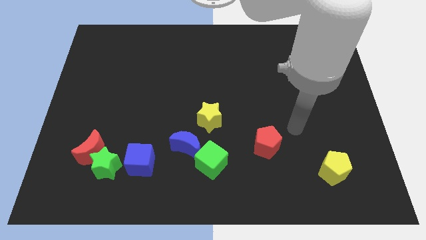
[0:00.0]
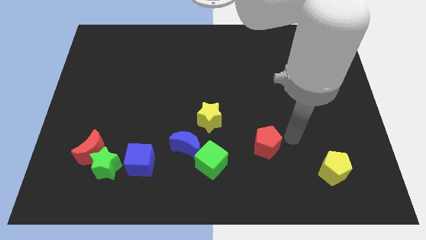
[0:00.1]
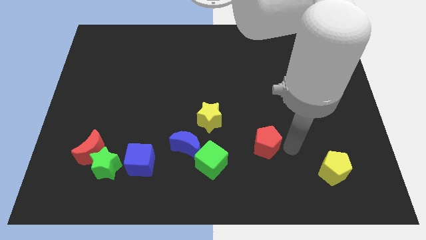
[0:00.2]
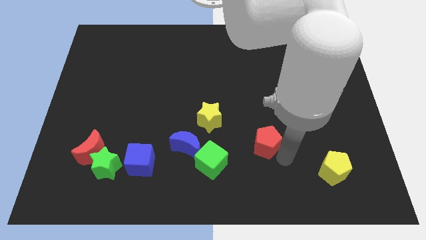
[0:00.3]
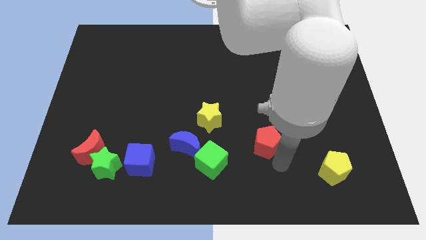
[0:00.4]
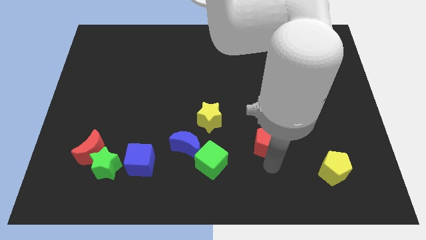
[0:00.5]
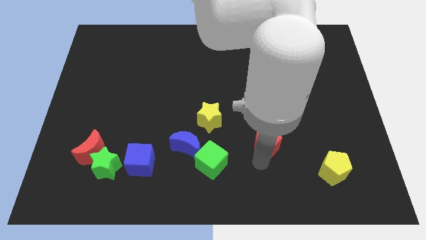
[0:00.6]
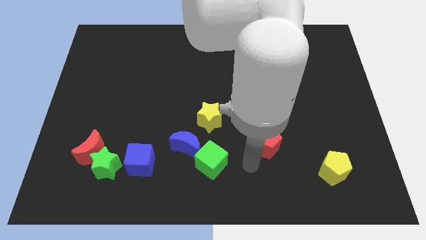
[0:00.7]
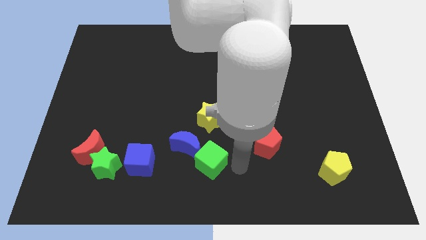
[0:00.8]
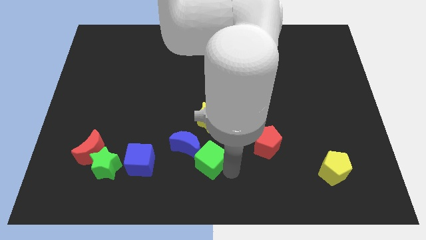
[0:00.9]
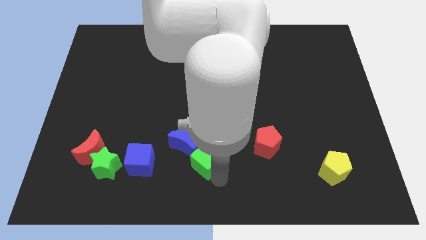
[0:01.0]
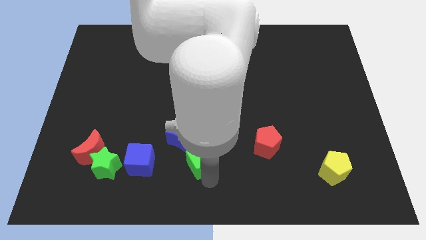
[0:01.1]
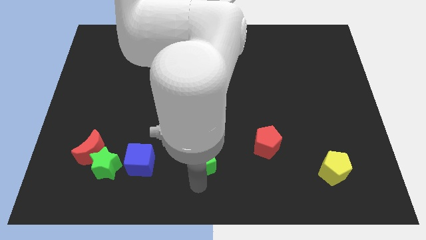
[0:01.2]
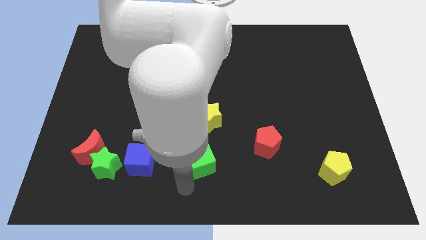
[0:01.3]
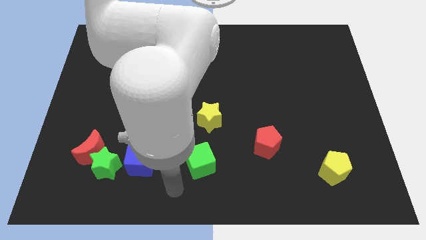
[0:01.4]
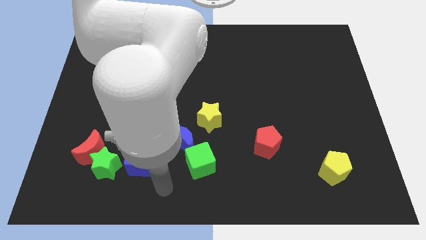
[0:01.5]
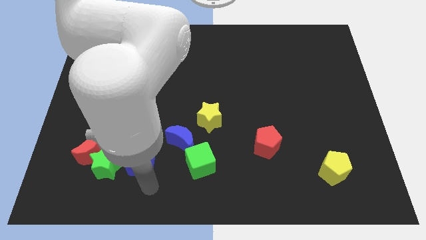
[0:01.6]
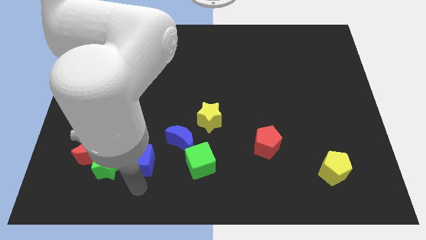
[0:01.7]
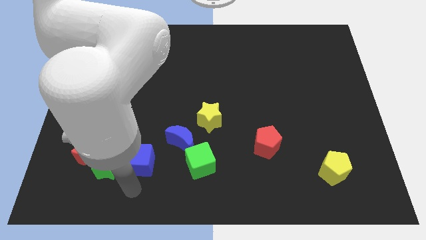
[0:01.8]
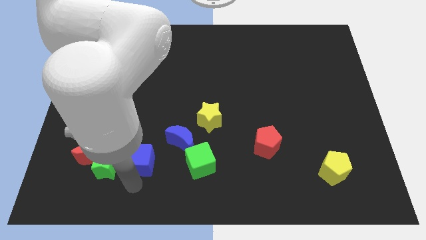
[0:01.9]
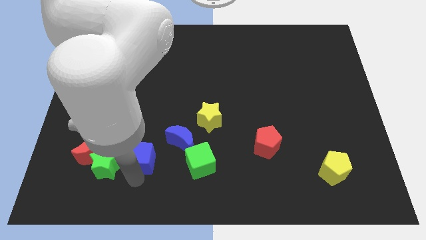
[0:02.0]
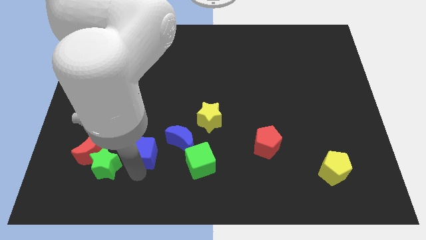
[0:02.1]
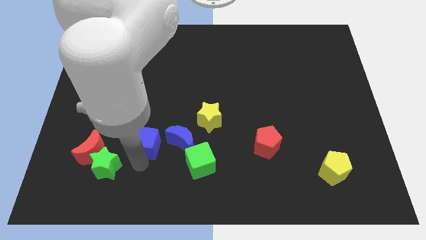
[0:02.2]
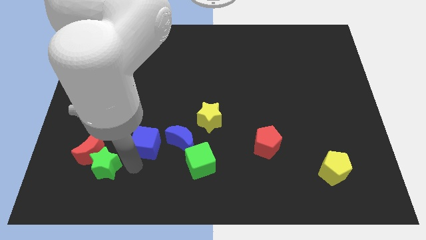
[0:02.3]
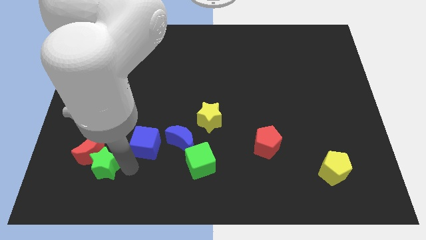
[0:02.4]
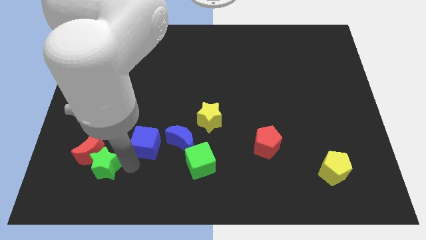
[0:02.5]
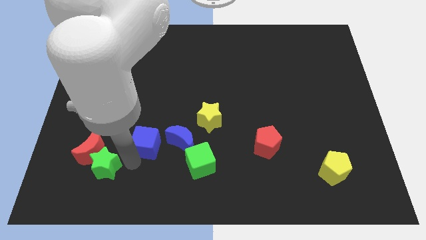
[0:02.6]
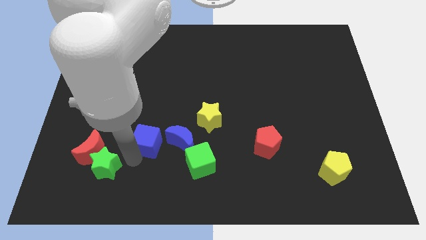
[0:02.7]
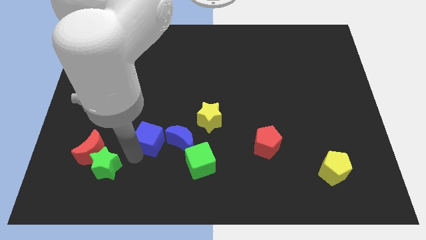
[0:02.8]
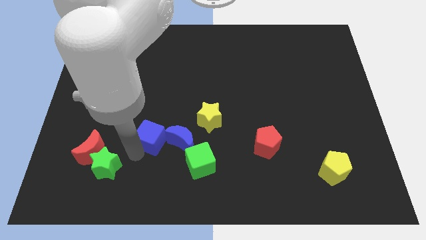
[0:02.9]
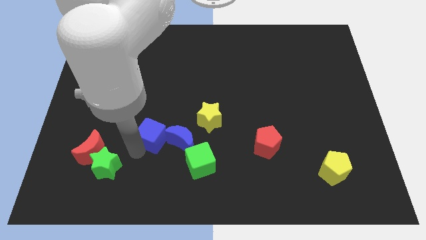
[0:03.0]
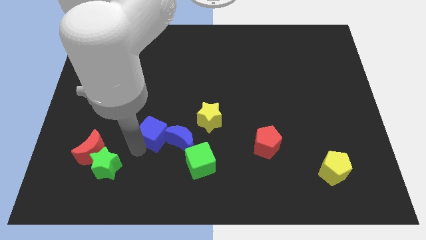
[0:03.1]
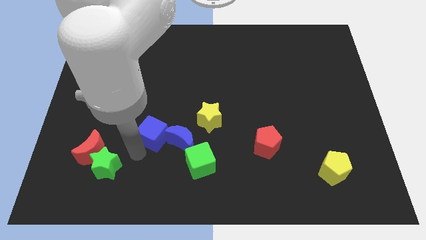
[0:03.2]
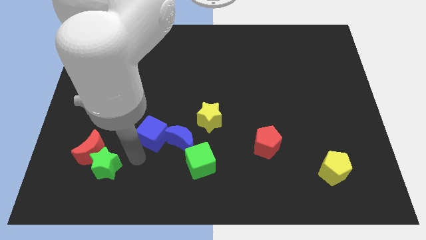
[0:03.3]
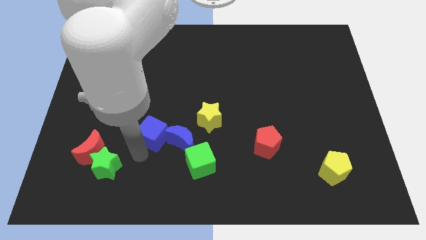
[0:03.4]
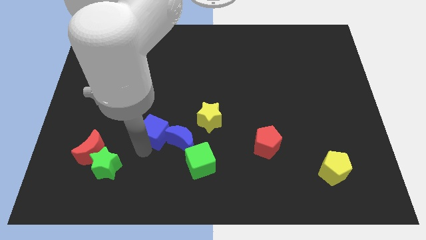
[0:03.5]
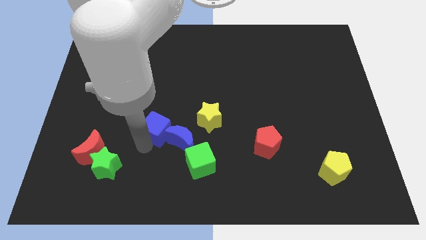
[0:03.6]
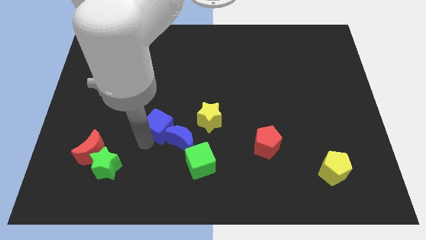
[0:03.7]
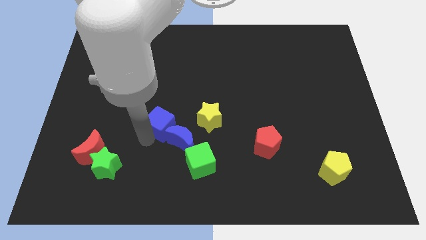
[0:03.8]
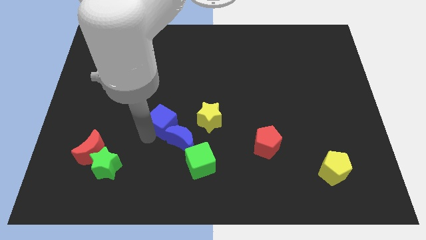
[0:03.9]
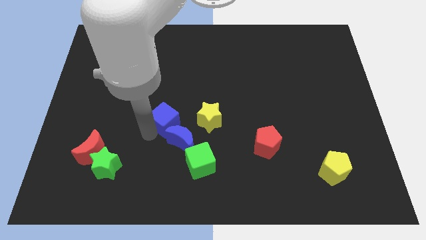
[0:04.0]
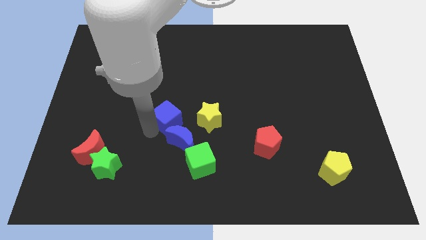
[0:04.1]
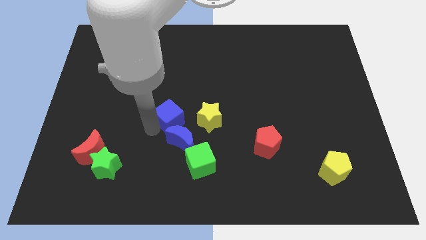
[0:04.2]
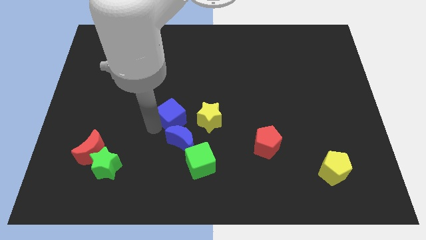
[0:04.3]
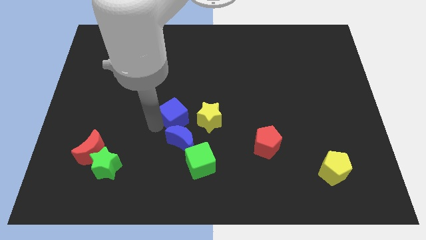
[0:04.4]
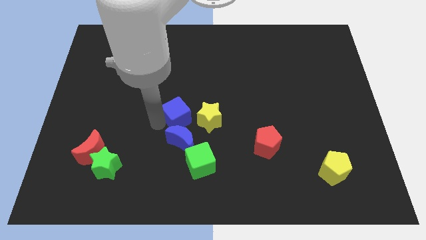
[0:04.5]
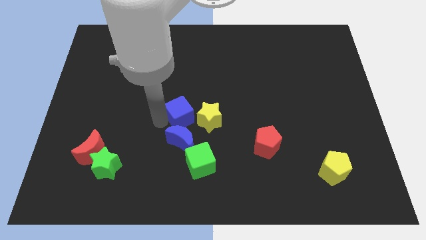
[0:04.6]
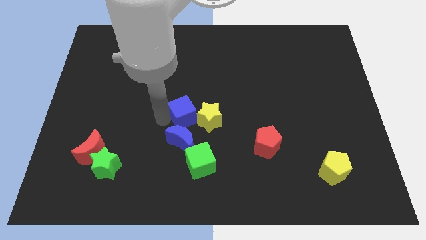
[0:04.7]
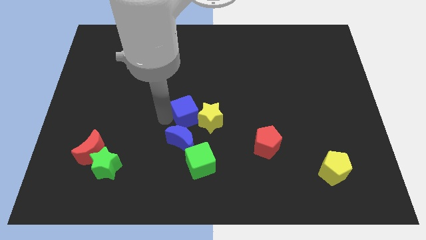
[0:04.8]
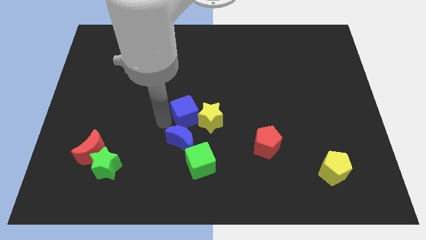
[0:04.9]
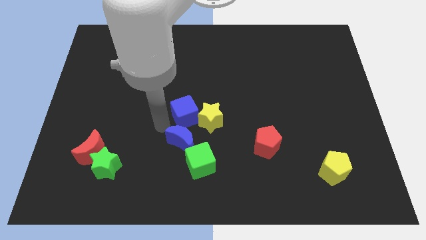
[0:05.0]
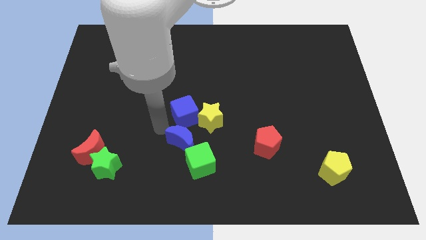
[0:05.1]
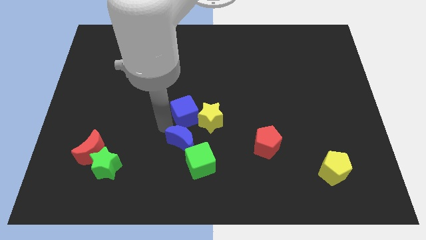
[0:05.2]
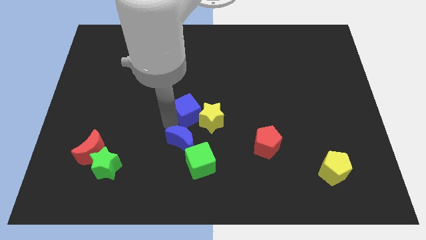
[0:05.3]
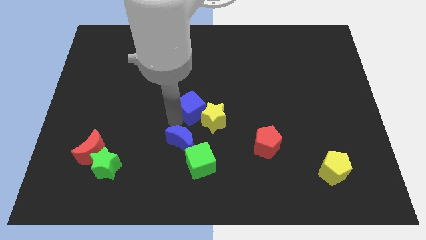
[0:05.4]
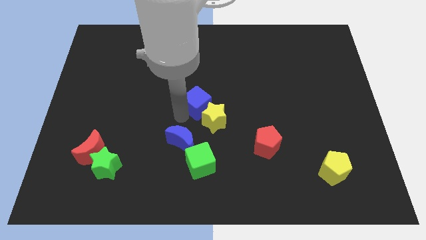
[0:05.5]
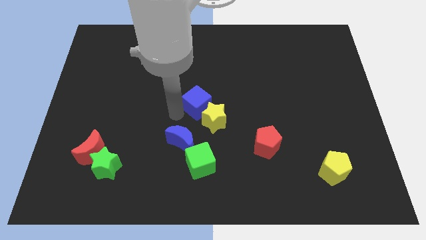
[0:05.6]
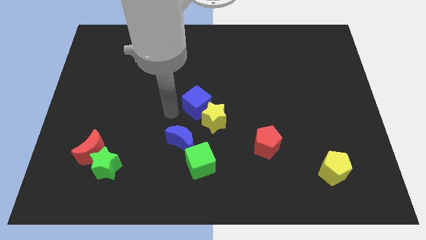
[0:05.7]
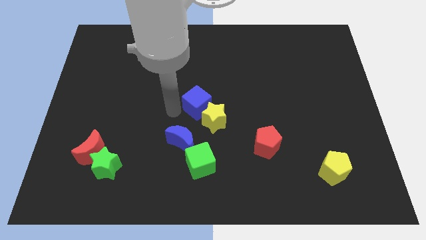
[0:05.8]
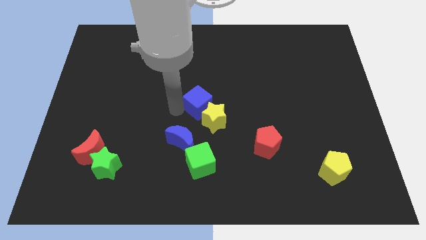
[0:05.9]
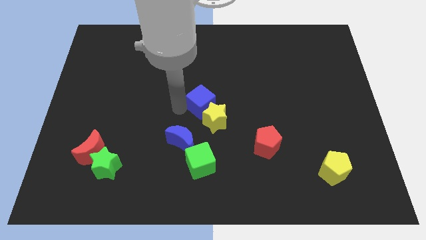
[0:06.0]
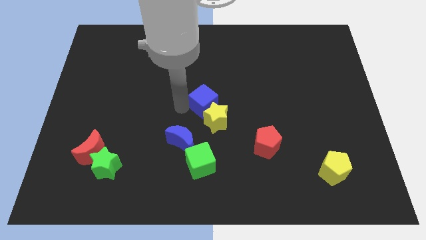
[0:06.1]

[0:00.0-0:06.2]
slide the blue cube up and right

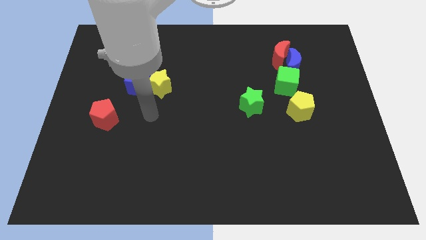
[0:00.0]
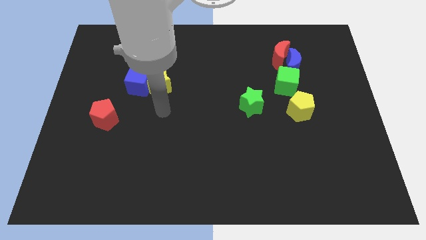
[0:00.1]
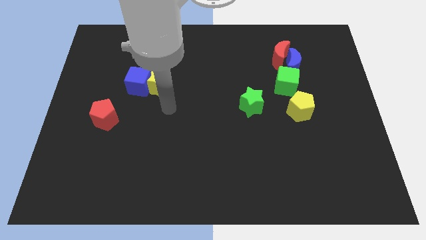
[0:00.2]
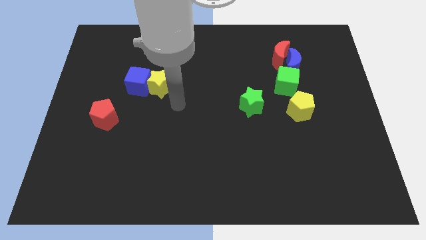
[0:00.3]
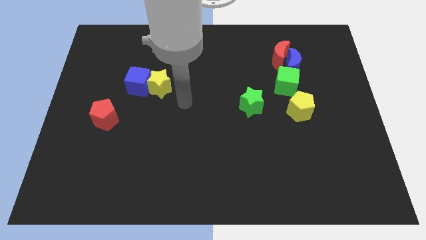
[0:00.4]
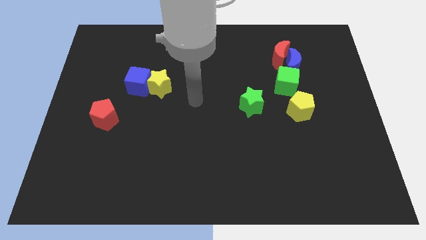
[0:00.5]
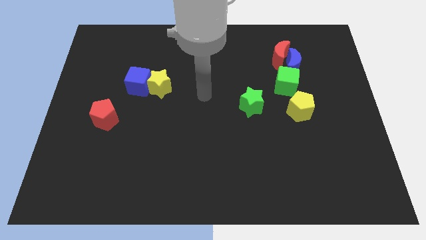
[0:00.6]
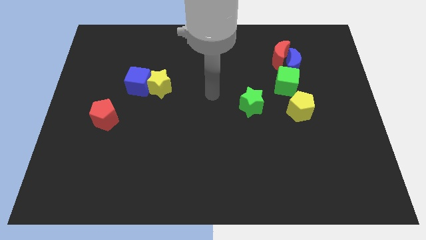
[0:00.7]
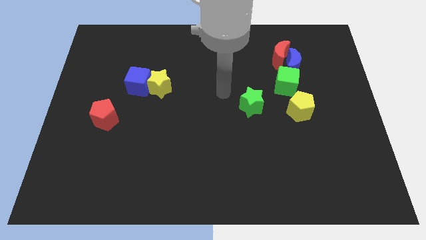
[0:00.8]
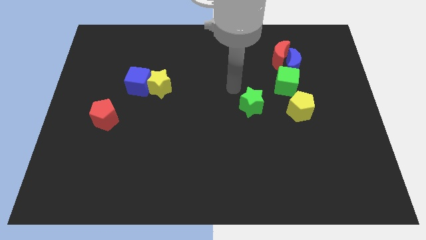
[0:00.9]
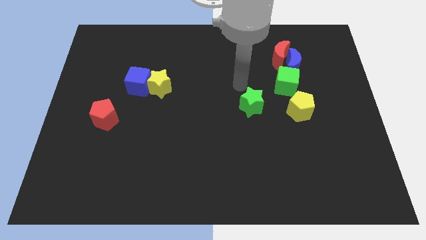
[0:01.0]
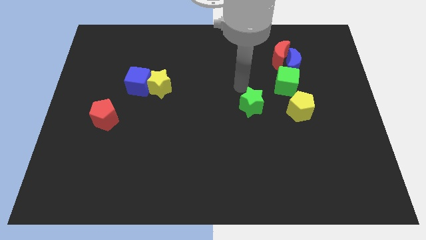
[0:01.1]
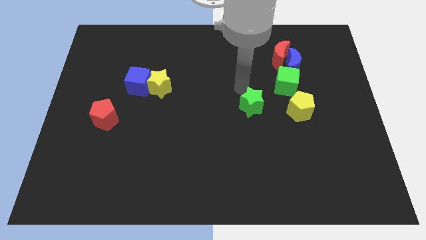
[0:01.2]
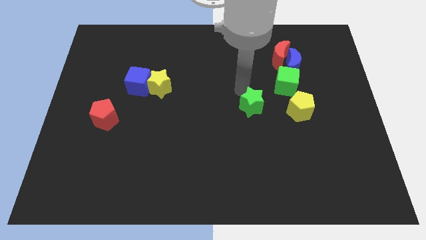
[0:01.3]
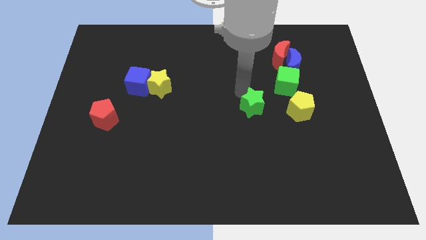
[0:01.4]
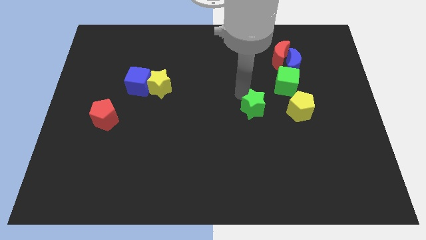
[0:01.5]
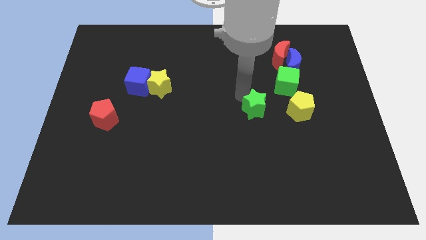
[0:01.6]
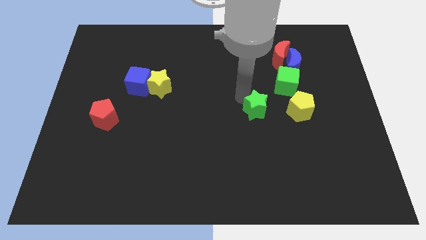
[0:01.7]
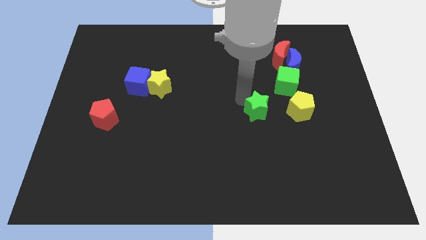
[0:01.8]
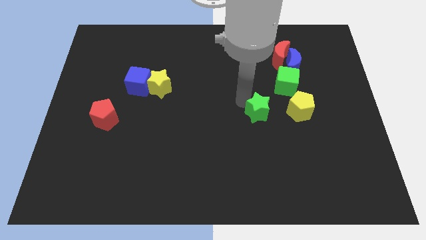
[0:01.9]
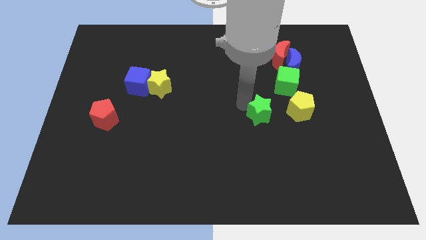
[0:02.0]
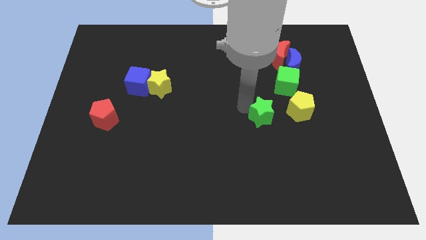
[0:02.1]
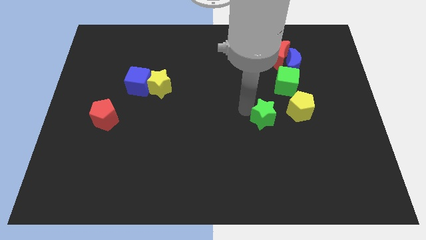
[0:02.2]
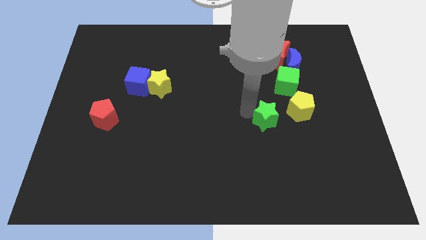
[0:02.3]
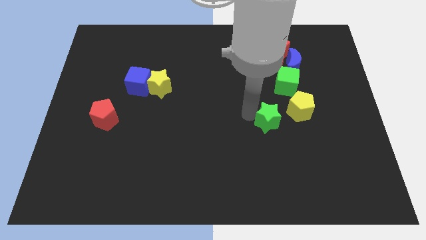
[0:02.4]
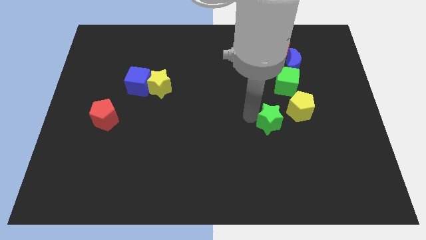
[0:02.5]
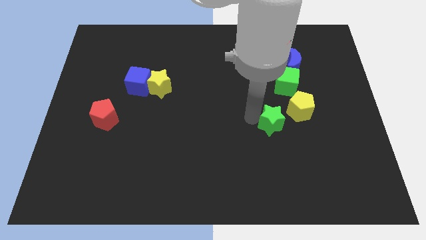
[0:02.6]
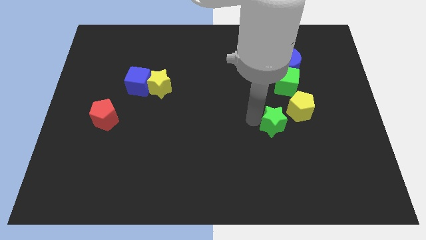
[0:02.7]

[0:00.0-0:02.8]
push the green star somewhat down and to the right
